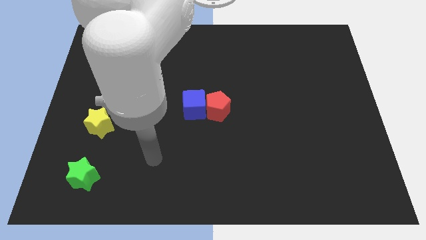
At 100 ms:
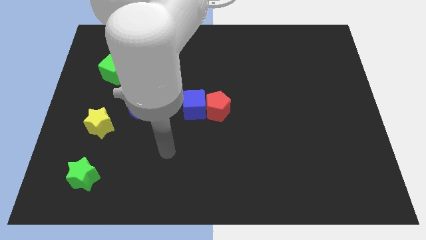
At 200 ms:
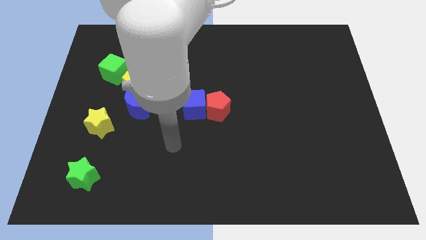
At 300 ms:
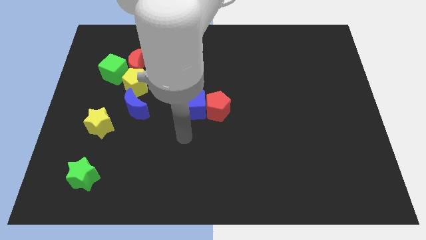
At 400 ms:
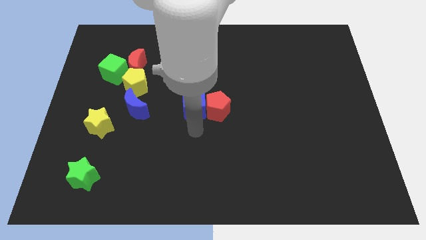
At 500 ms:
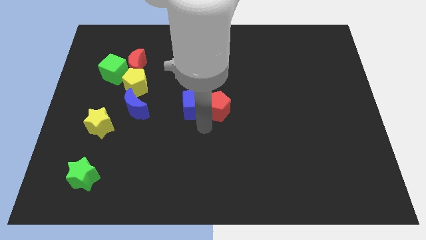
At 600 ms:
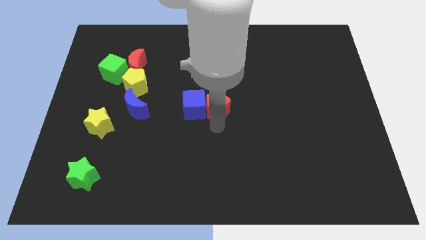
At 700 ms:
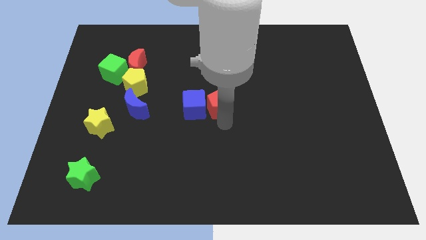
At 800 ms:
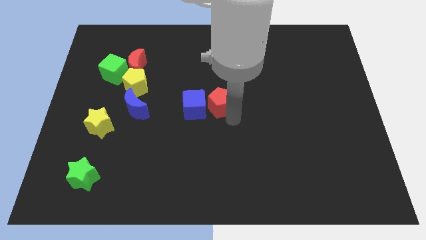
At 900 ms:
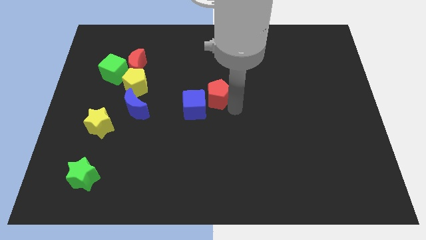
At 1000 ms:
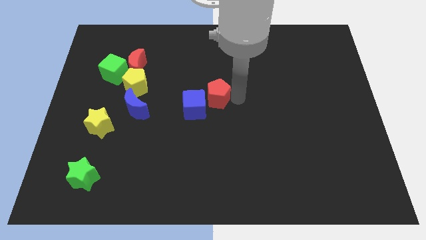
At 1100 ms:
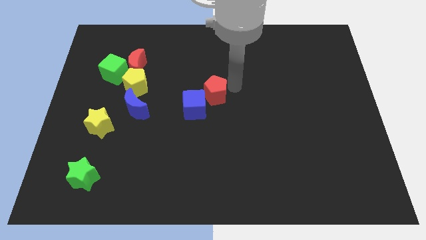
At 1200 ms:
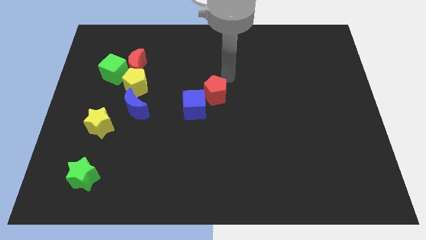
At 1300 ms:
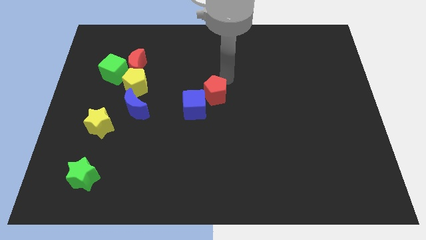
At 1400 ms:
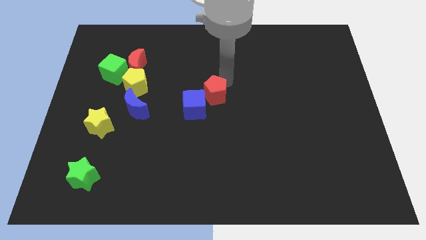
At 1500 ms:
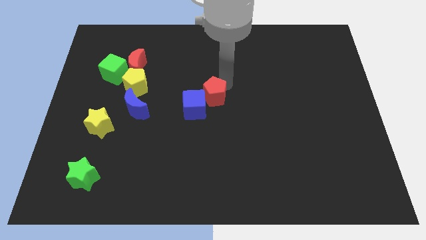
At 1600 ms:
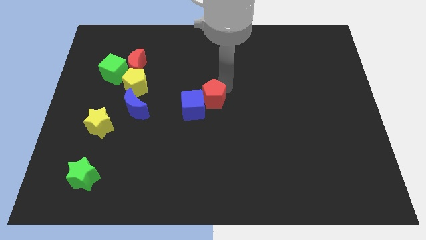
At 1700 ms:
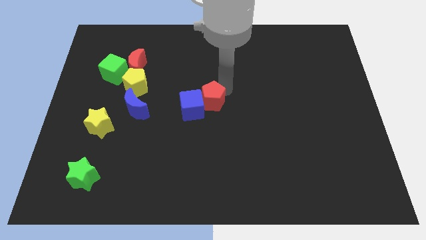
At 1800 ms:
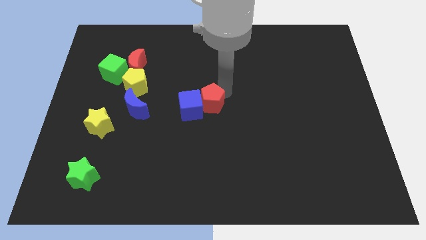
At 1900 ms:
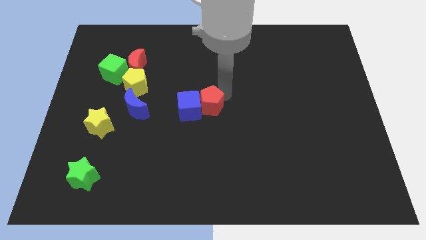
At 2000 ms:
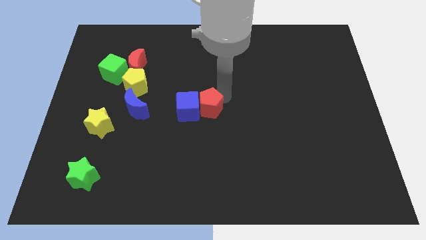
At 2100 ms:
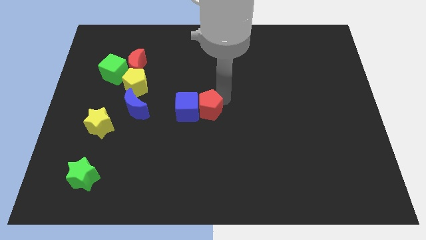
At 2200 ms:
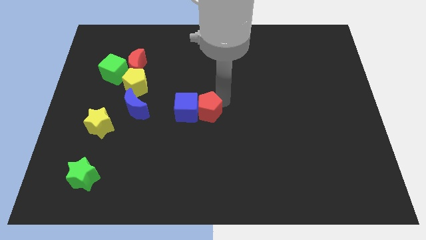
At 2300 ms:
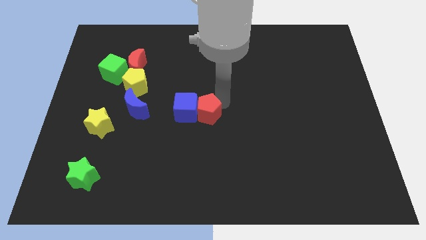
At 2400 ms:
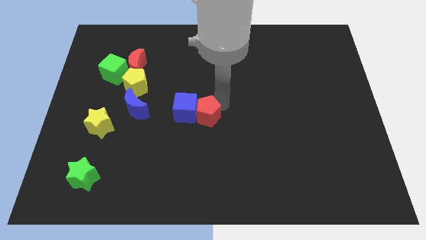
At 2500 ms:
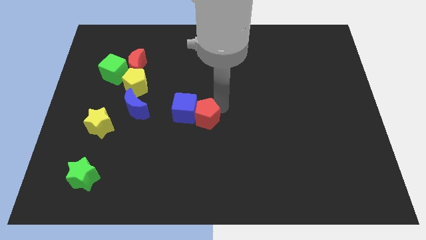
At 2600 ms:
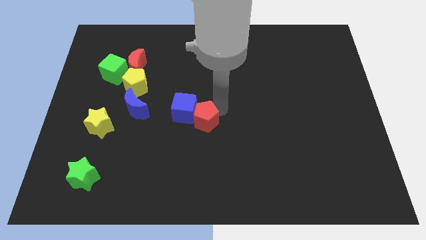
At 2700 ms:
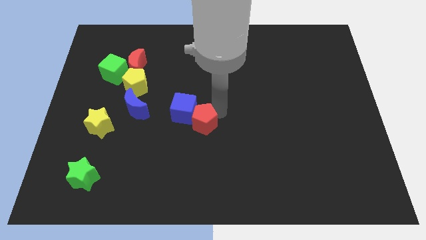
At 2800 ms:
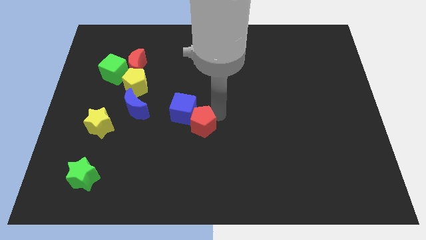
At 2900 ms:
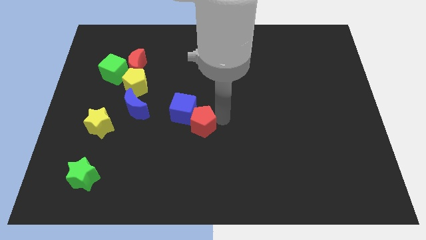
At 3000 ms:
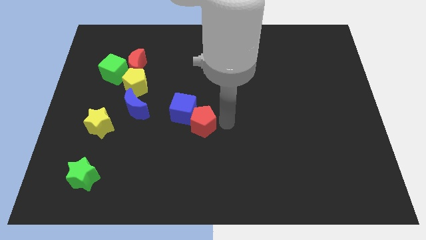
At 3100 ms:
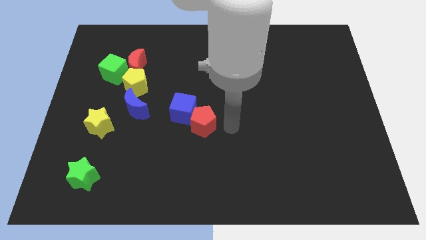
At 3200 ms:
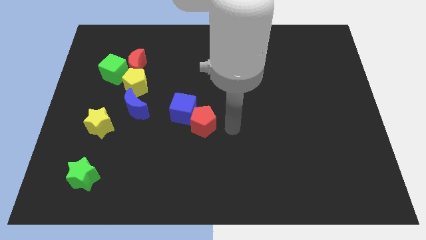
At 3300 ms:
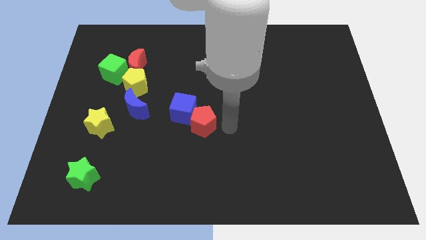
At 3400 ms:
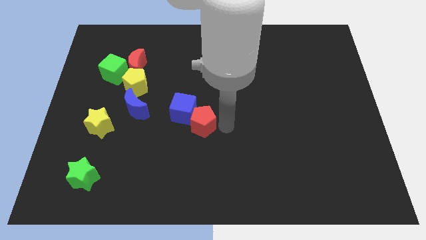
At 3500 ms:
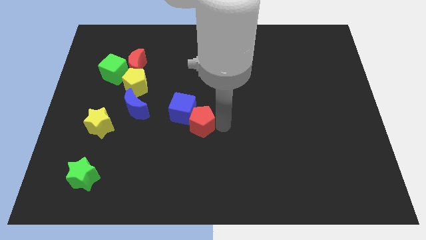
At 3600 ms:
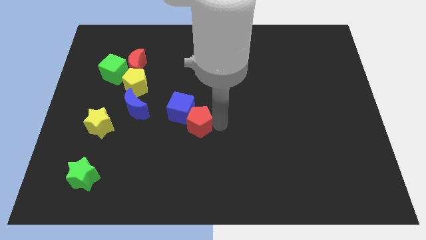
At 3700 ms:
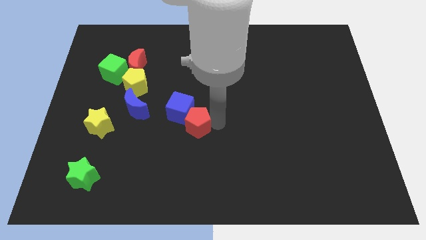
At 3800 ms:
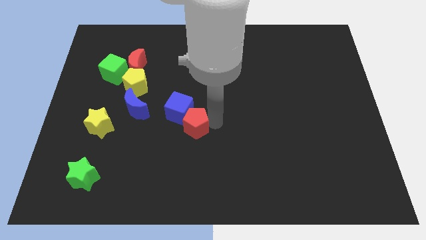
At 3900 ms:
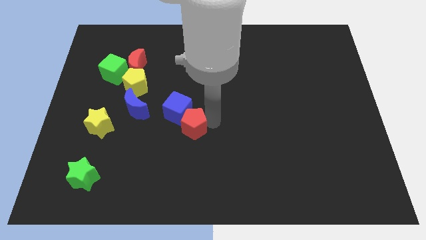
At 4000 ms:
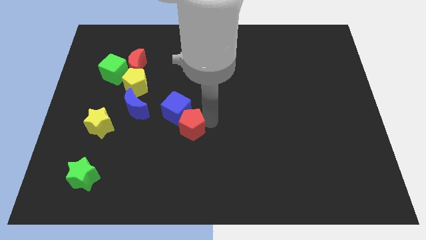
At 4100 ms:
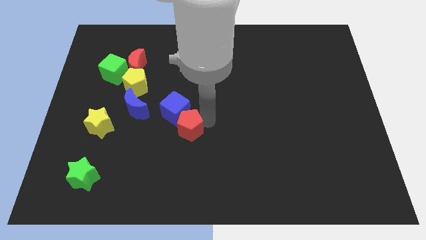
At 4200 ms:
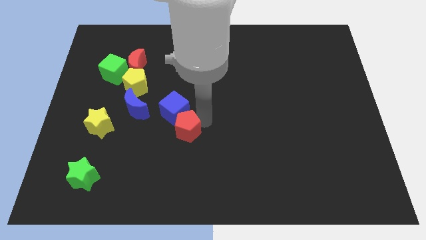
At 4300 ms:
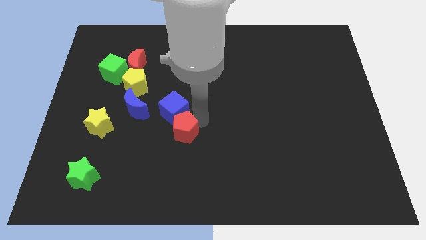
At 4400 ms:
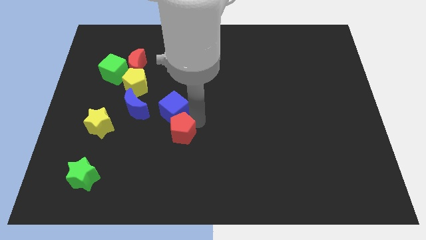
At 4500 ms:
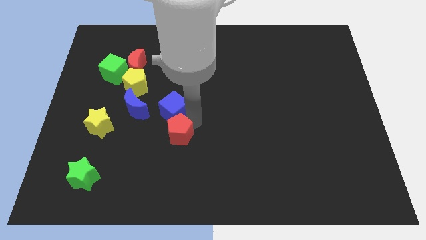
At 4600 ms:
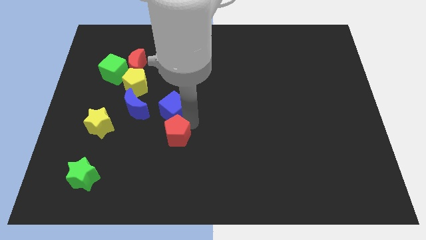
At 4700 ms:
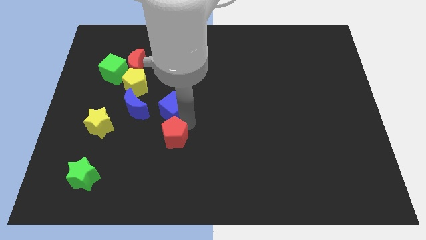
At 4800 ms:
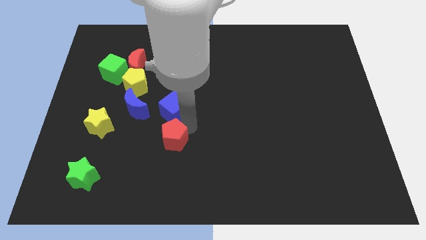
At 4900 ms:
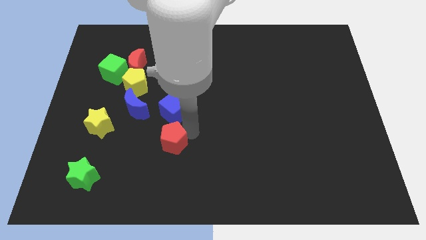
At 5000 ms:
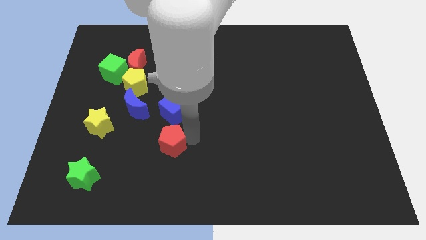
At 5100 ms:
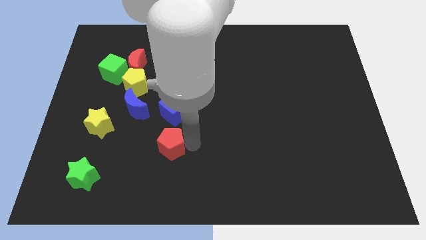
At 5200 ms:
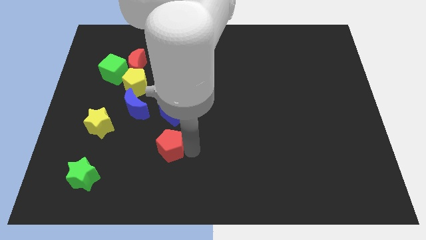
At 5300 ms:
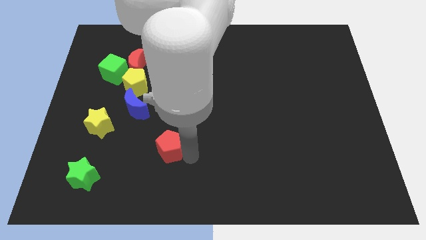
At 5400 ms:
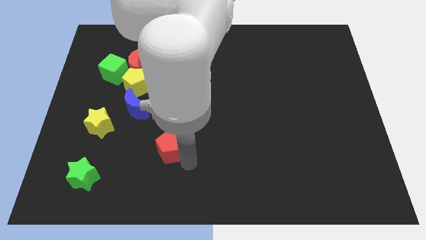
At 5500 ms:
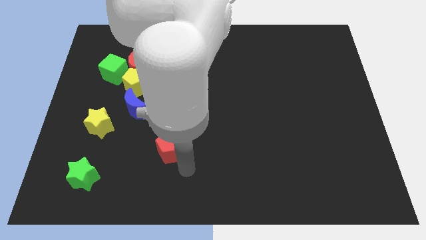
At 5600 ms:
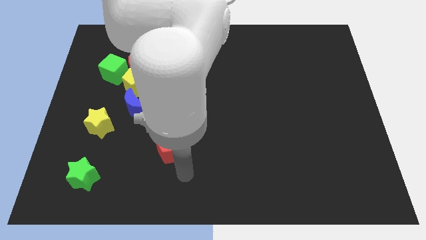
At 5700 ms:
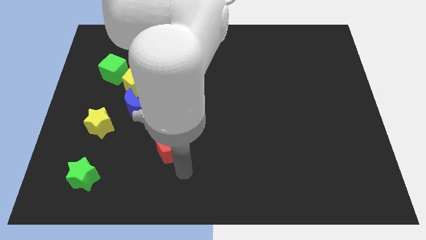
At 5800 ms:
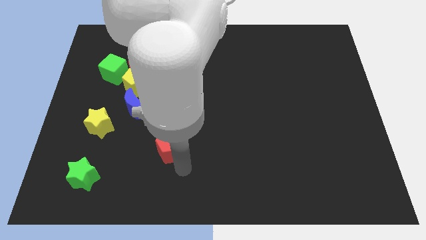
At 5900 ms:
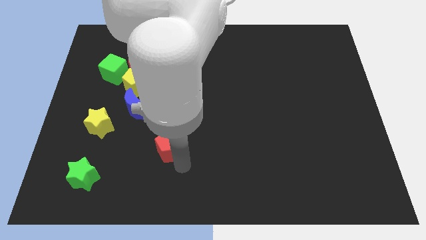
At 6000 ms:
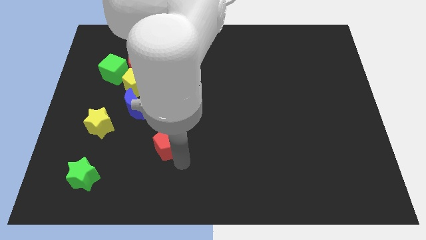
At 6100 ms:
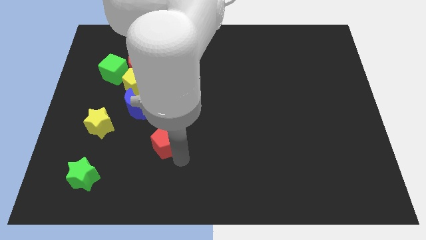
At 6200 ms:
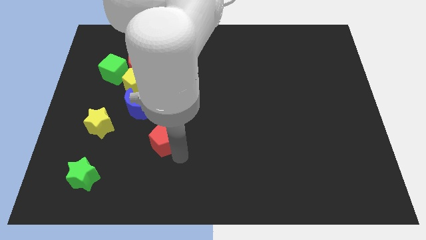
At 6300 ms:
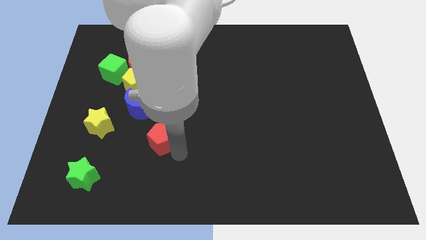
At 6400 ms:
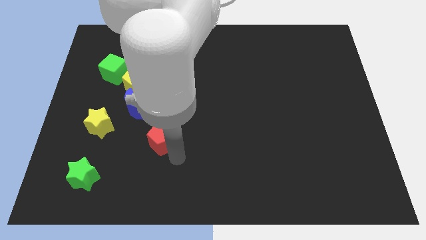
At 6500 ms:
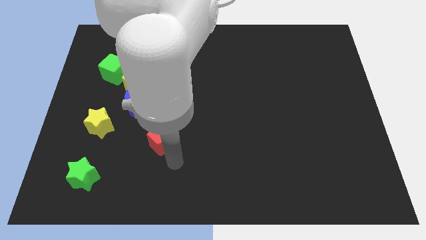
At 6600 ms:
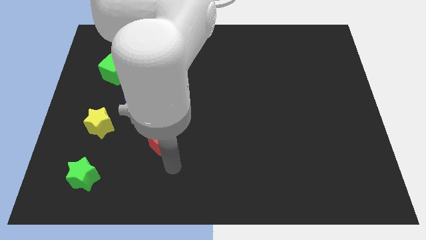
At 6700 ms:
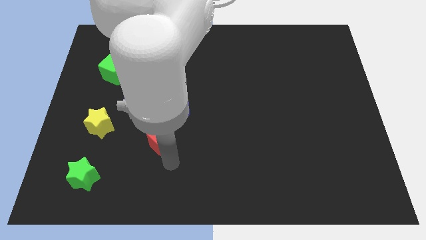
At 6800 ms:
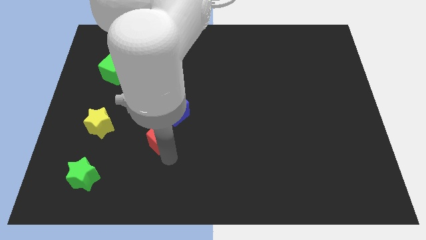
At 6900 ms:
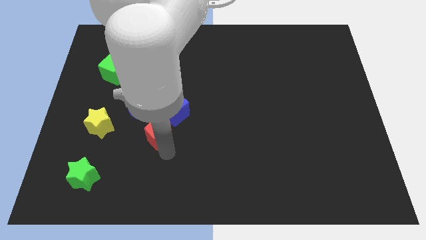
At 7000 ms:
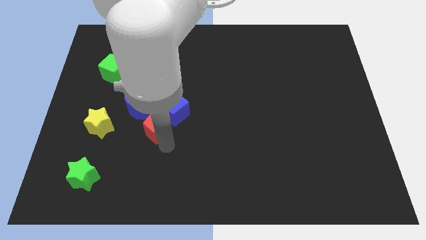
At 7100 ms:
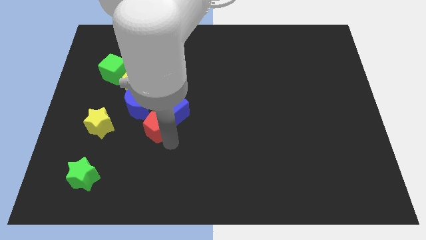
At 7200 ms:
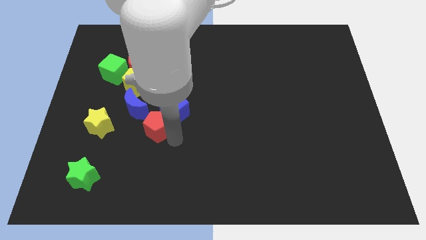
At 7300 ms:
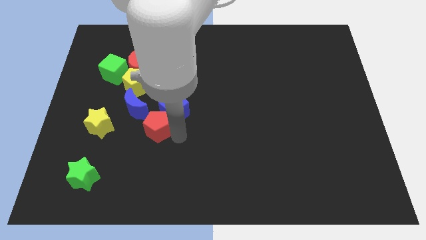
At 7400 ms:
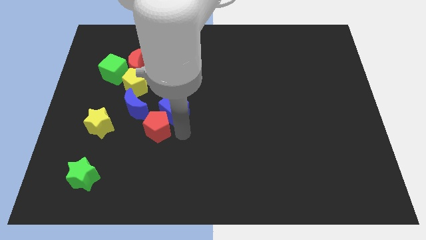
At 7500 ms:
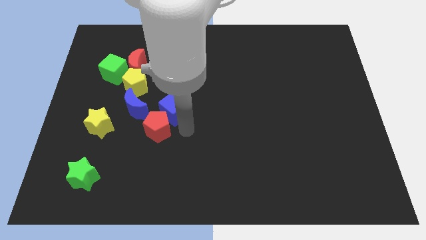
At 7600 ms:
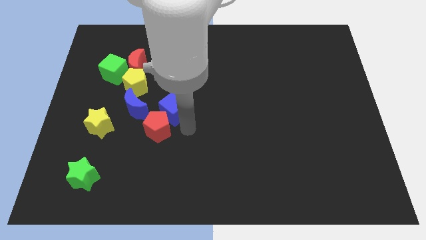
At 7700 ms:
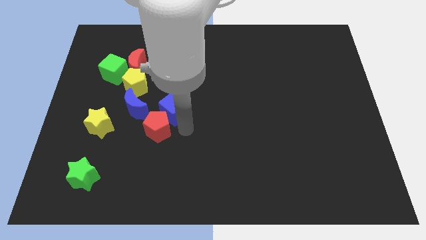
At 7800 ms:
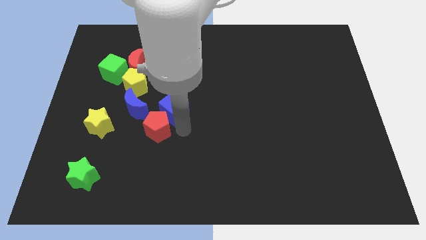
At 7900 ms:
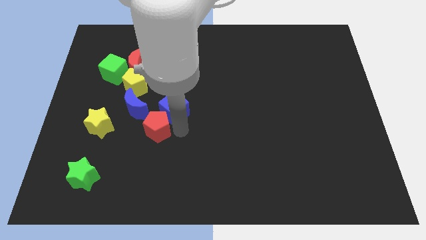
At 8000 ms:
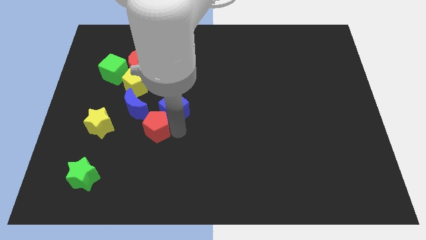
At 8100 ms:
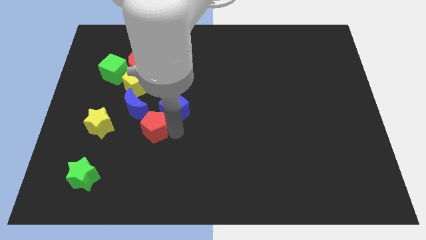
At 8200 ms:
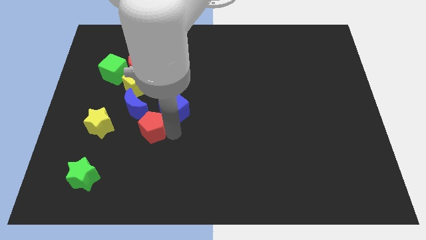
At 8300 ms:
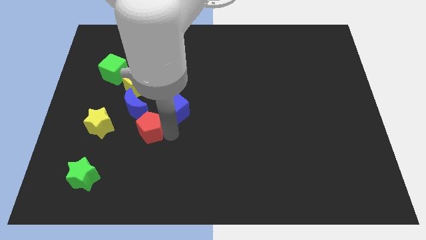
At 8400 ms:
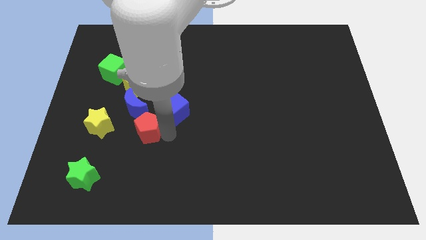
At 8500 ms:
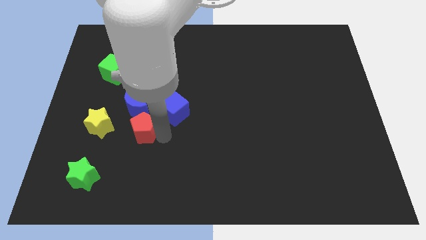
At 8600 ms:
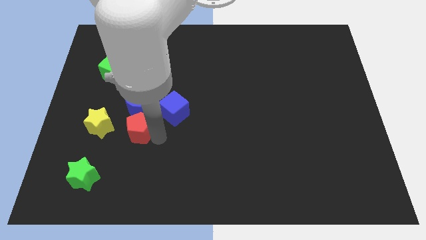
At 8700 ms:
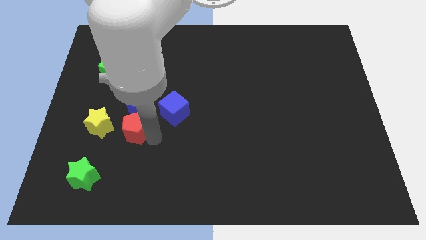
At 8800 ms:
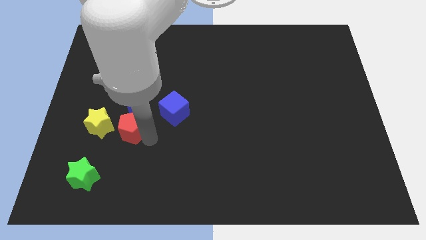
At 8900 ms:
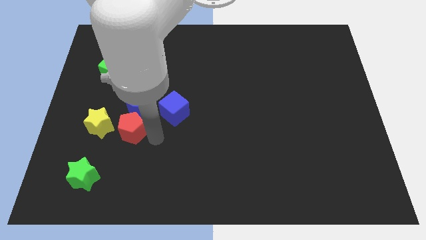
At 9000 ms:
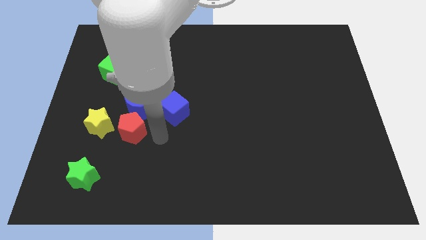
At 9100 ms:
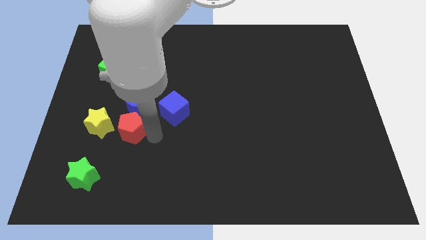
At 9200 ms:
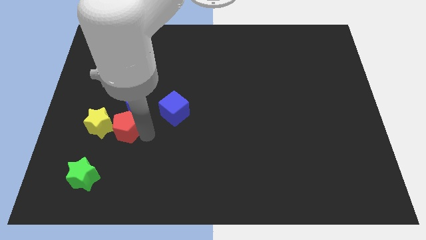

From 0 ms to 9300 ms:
move the red pentagon towards the yellow star
